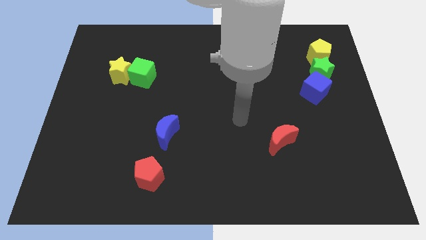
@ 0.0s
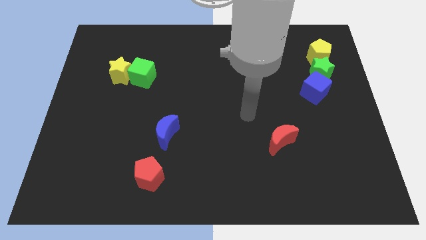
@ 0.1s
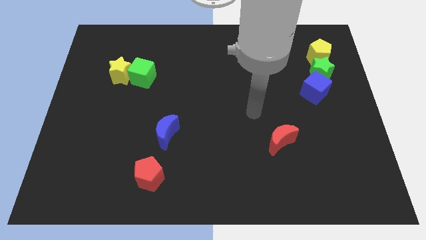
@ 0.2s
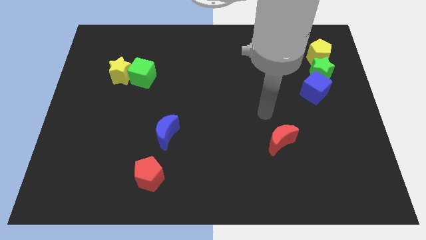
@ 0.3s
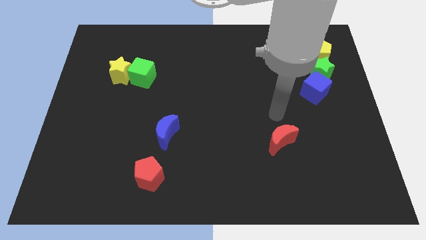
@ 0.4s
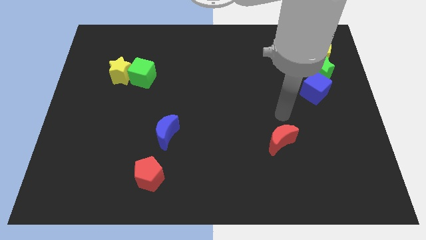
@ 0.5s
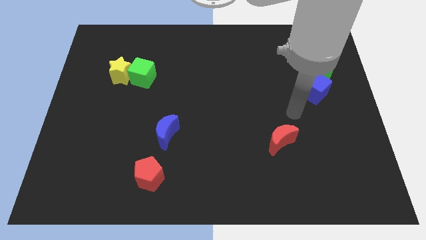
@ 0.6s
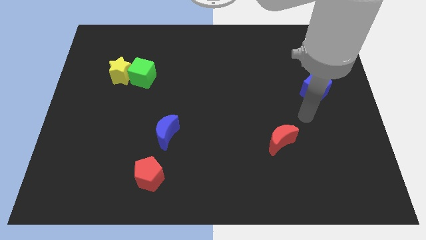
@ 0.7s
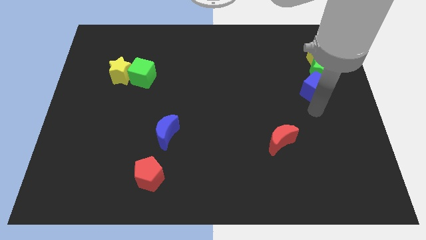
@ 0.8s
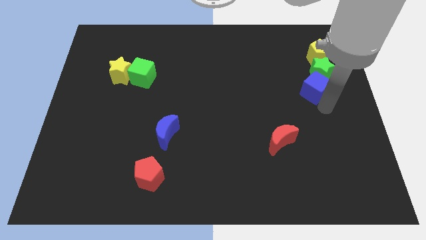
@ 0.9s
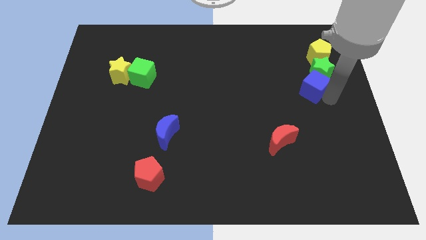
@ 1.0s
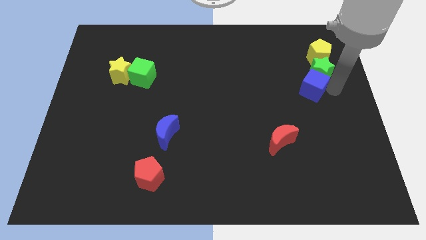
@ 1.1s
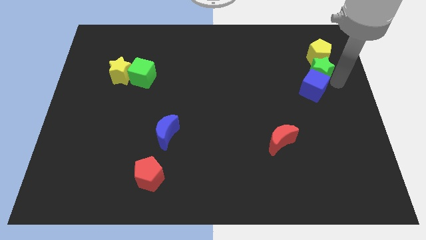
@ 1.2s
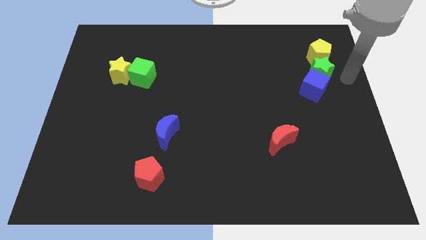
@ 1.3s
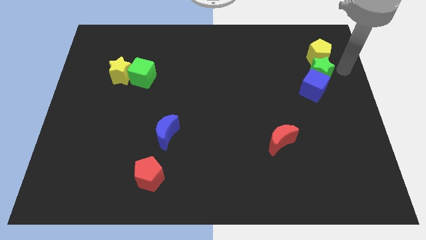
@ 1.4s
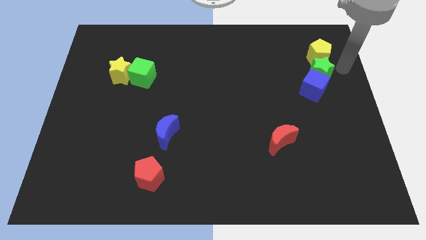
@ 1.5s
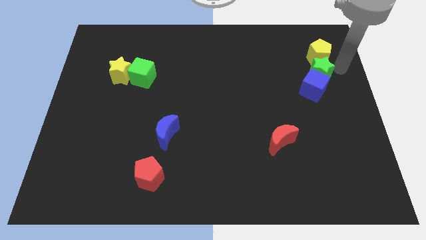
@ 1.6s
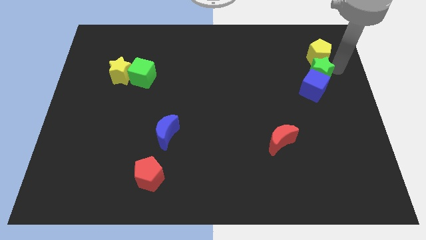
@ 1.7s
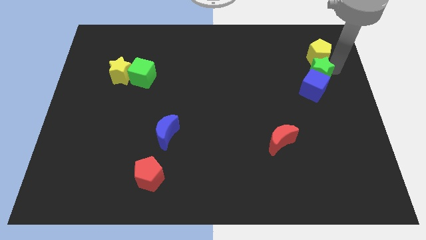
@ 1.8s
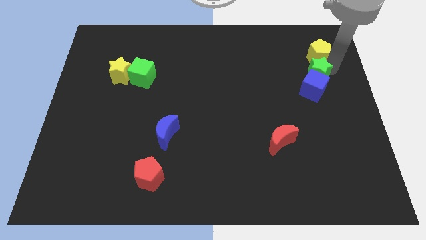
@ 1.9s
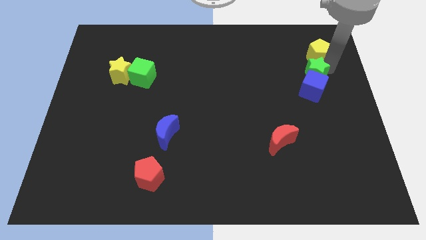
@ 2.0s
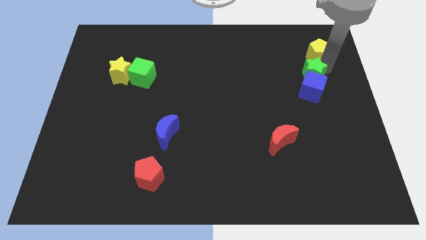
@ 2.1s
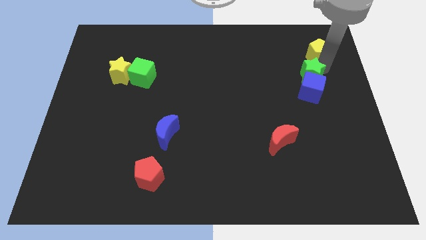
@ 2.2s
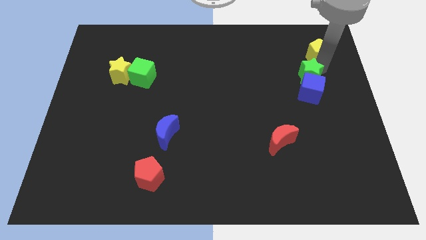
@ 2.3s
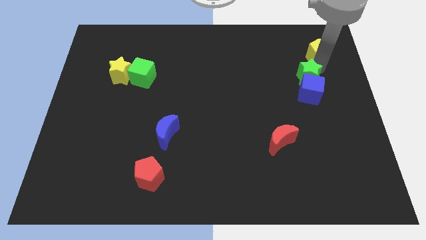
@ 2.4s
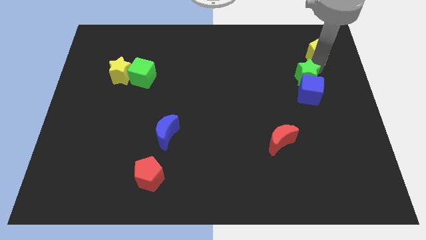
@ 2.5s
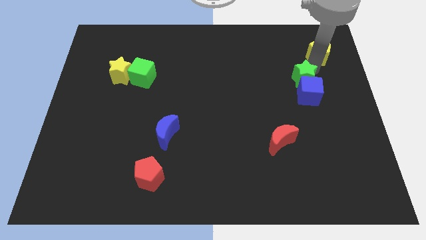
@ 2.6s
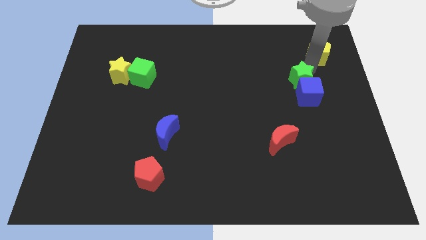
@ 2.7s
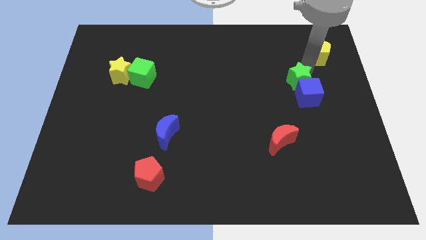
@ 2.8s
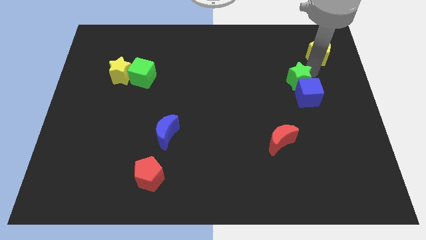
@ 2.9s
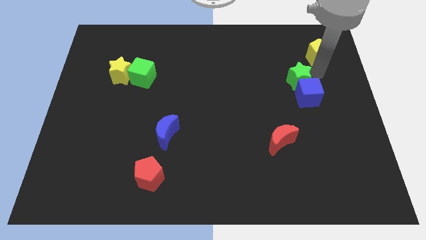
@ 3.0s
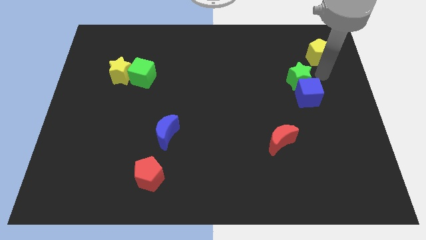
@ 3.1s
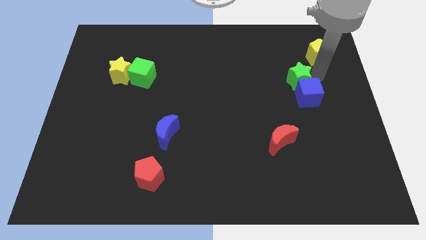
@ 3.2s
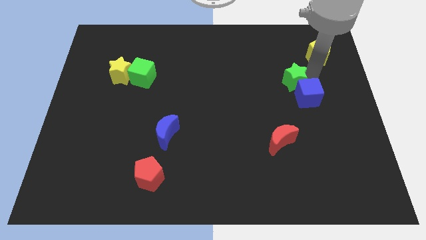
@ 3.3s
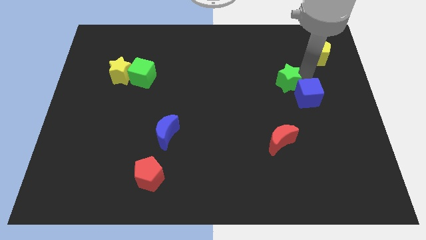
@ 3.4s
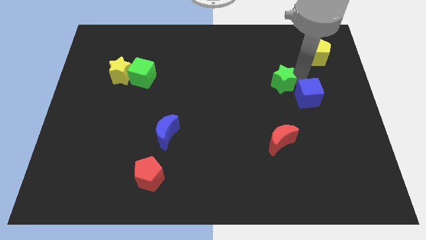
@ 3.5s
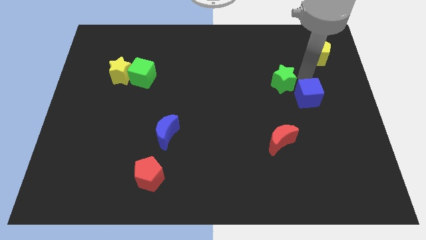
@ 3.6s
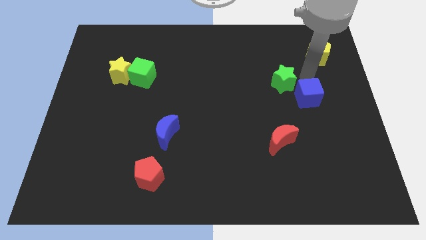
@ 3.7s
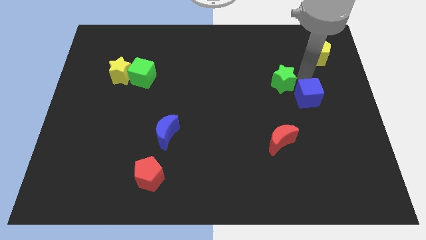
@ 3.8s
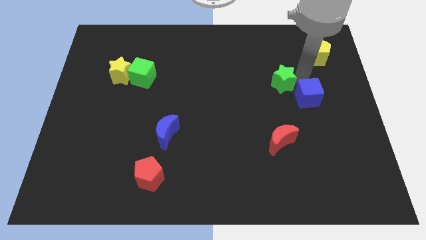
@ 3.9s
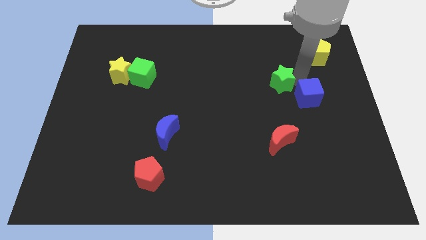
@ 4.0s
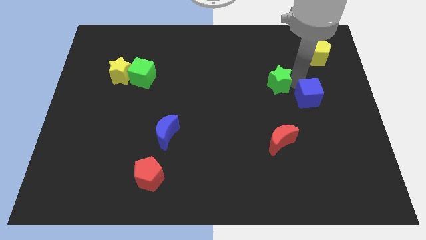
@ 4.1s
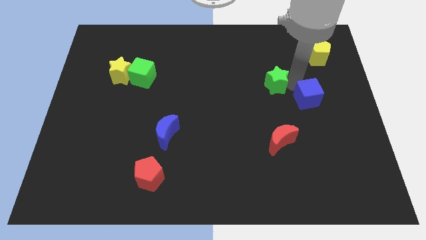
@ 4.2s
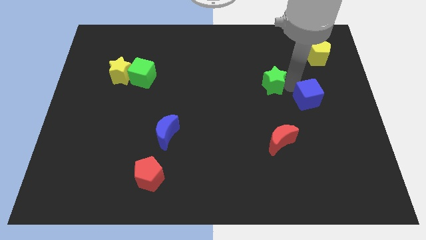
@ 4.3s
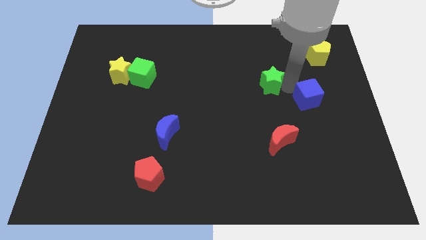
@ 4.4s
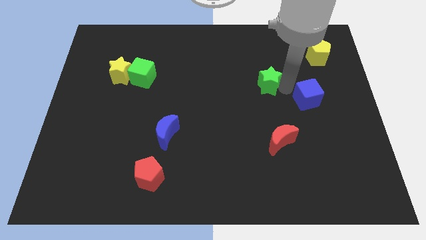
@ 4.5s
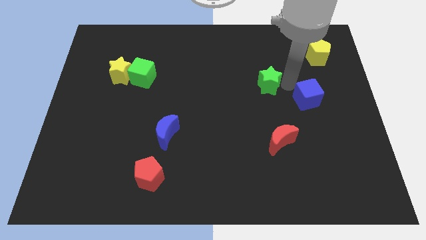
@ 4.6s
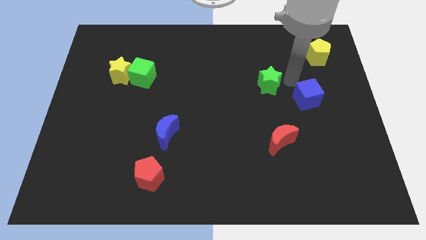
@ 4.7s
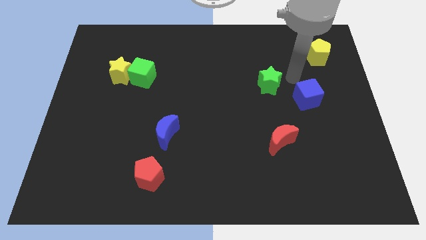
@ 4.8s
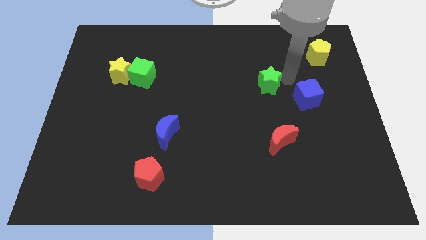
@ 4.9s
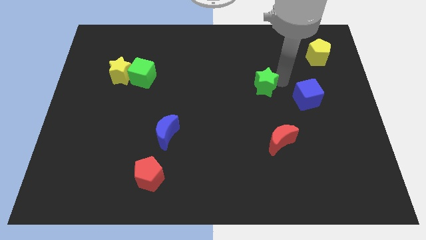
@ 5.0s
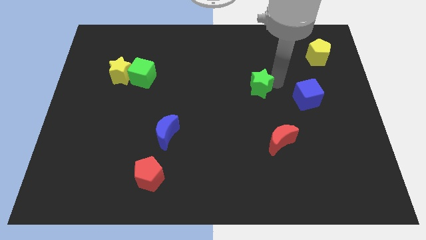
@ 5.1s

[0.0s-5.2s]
push the green star to the middle

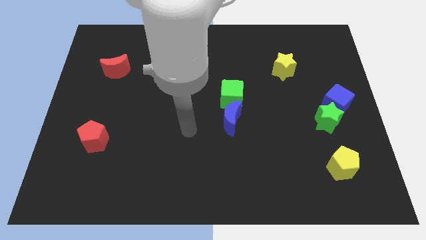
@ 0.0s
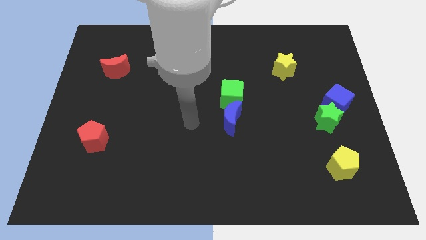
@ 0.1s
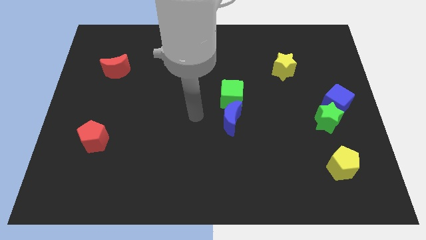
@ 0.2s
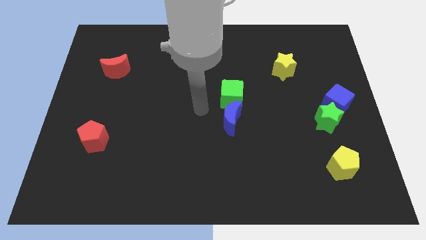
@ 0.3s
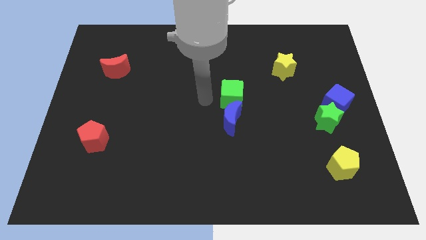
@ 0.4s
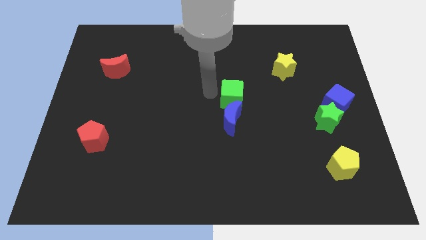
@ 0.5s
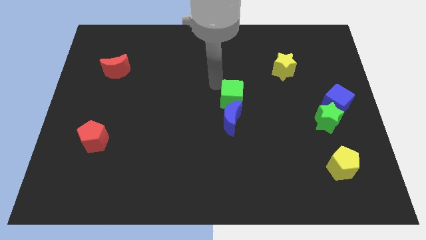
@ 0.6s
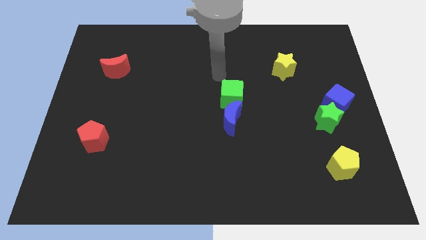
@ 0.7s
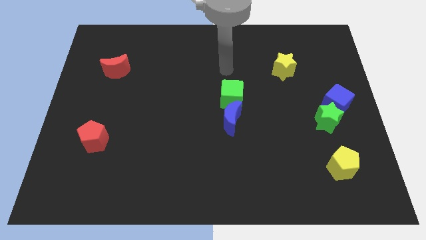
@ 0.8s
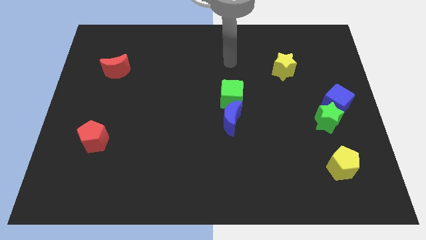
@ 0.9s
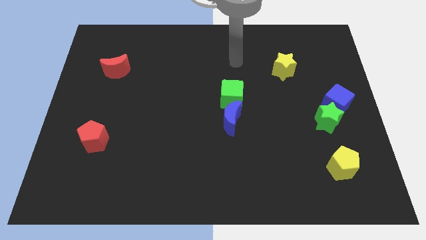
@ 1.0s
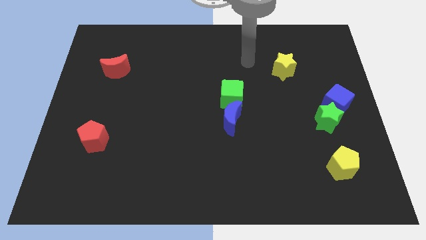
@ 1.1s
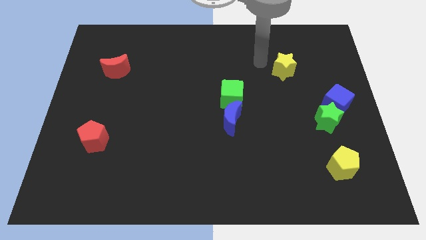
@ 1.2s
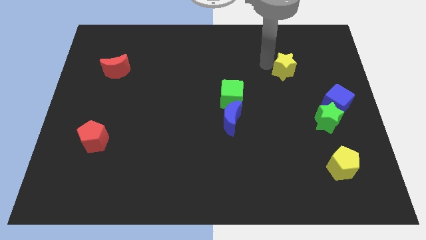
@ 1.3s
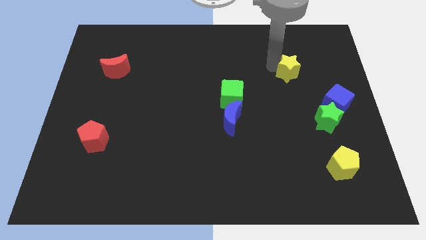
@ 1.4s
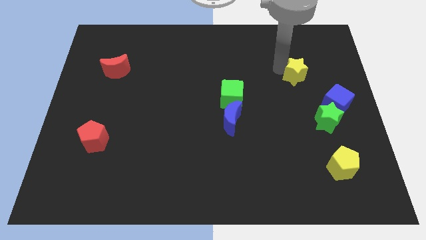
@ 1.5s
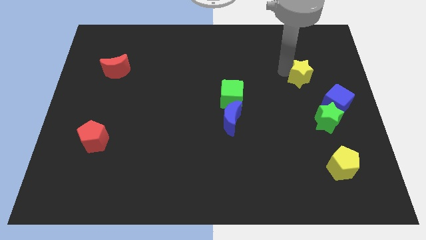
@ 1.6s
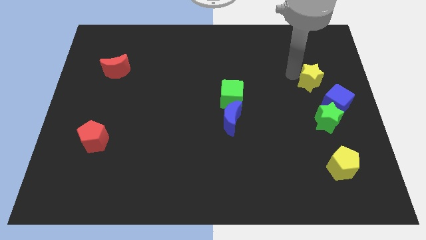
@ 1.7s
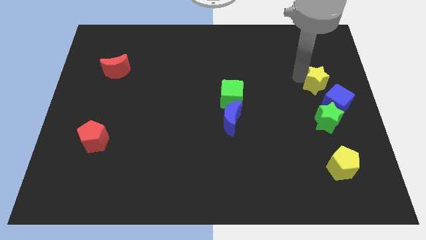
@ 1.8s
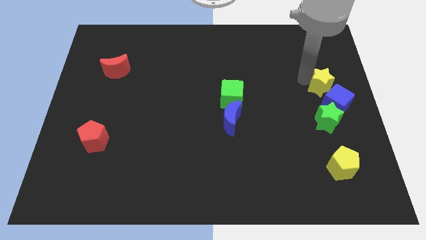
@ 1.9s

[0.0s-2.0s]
put the yellow star to the center right
